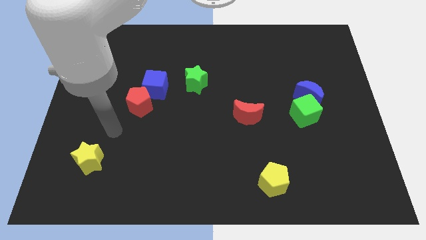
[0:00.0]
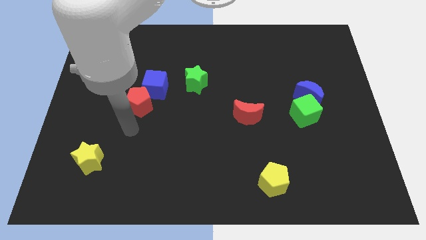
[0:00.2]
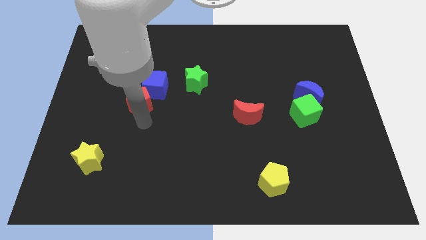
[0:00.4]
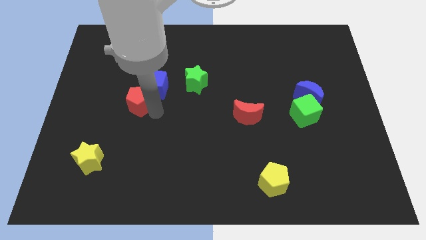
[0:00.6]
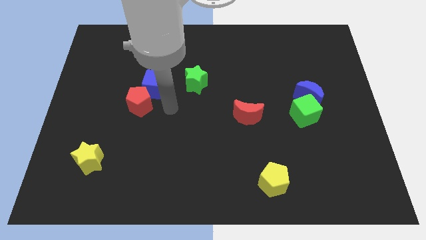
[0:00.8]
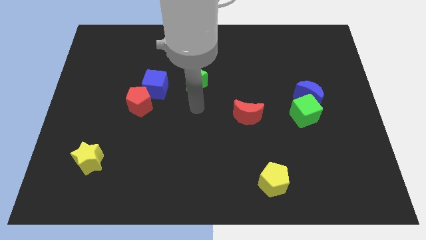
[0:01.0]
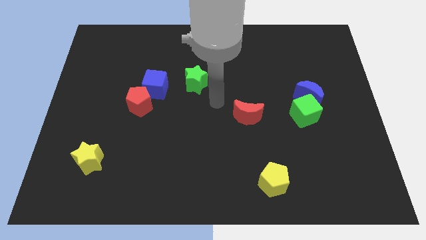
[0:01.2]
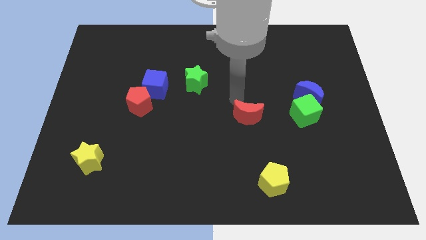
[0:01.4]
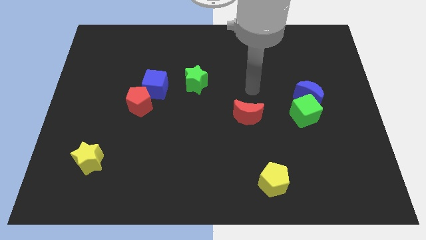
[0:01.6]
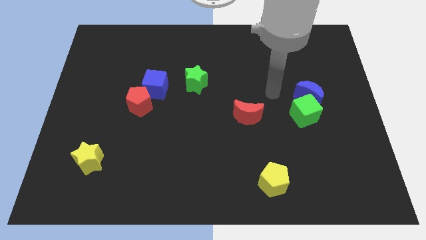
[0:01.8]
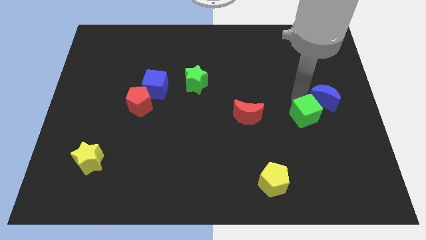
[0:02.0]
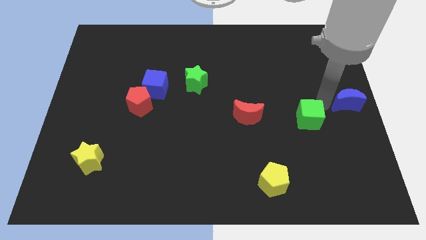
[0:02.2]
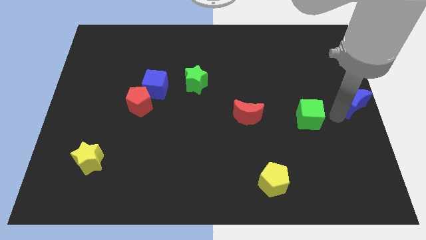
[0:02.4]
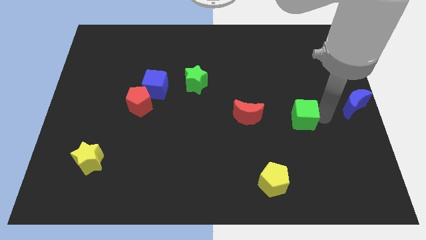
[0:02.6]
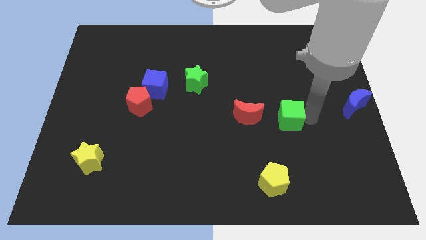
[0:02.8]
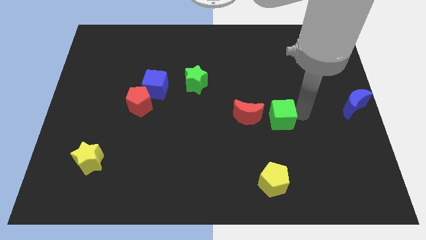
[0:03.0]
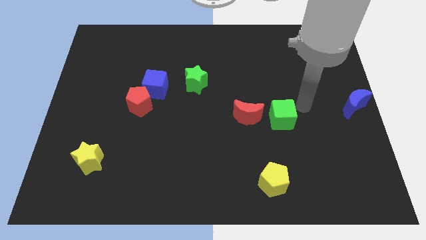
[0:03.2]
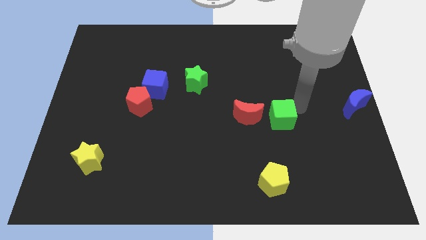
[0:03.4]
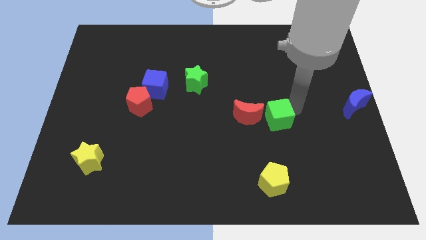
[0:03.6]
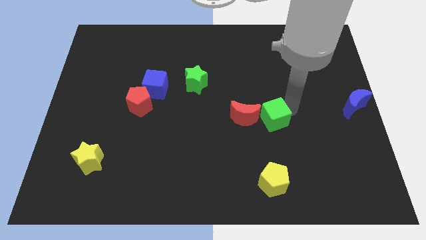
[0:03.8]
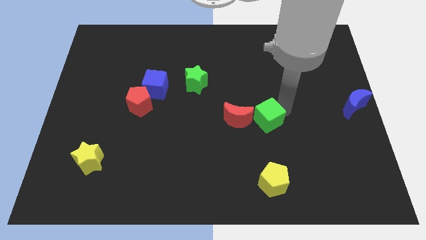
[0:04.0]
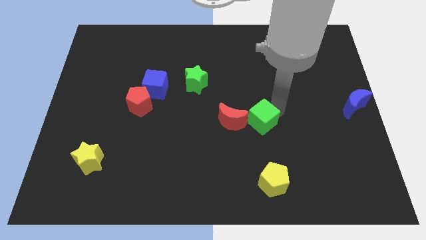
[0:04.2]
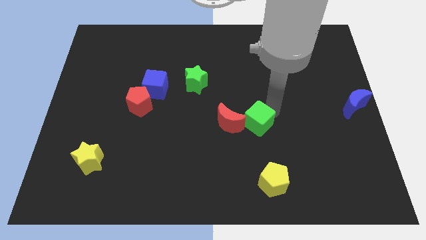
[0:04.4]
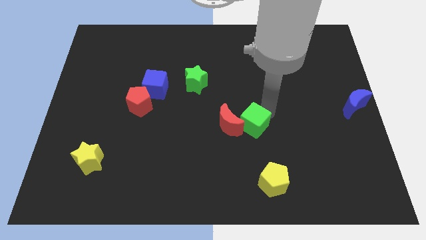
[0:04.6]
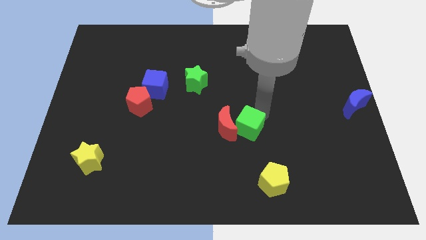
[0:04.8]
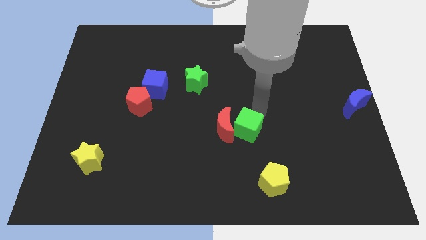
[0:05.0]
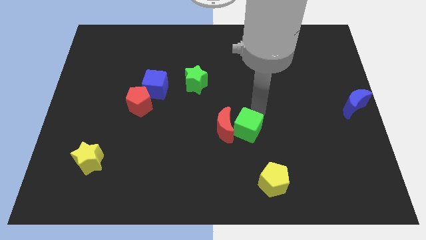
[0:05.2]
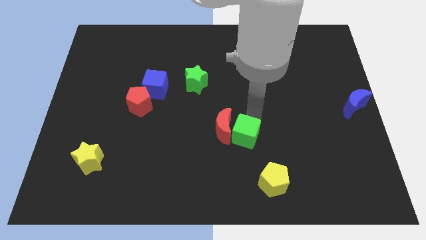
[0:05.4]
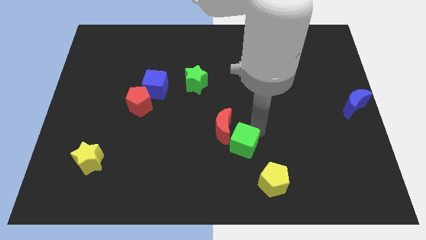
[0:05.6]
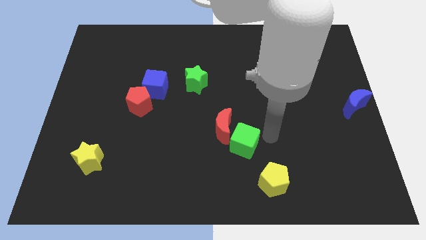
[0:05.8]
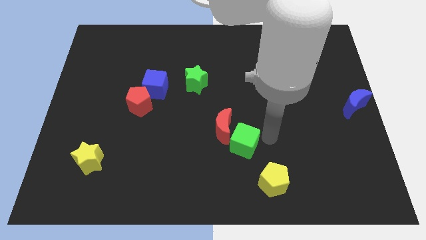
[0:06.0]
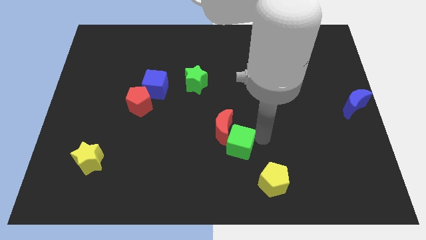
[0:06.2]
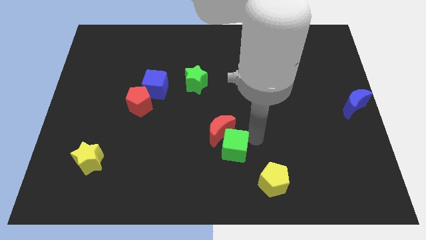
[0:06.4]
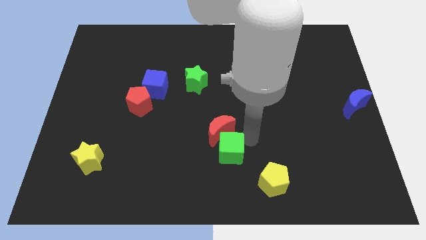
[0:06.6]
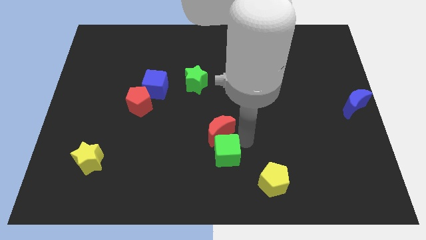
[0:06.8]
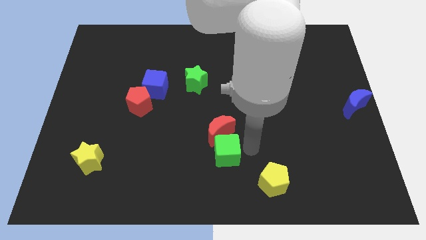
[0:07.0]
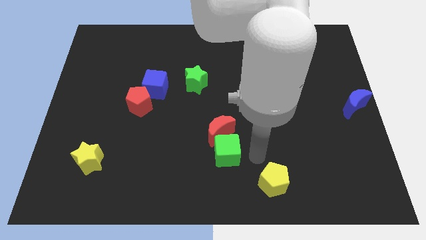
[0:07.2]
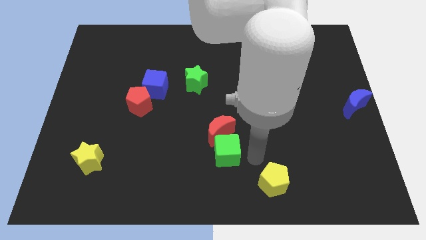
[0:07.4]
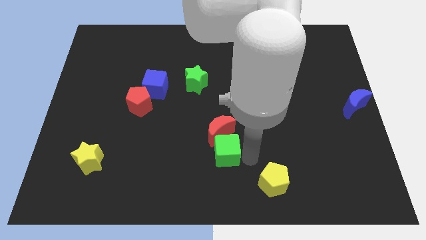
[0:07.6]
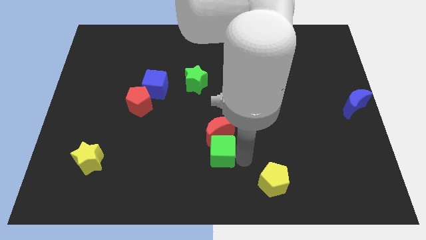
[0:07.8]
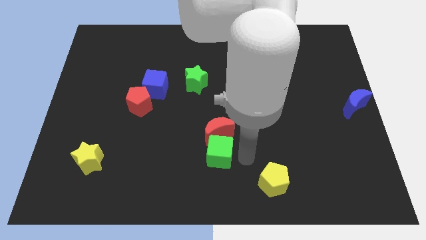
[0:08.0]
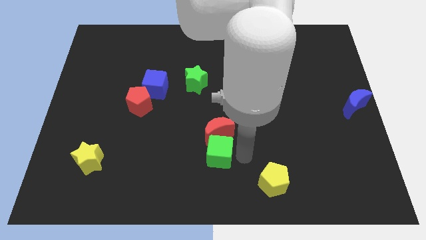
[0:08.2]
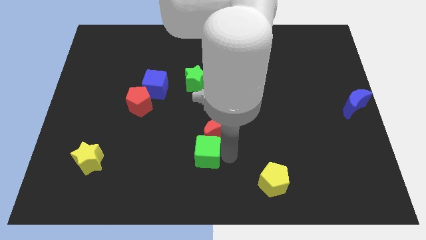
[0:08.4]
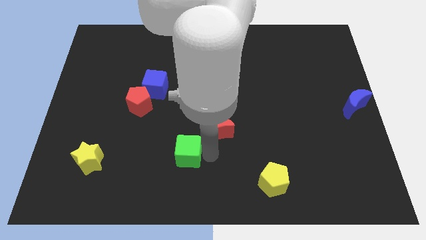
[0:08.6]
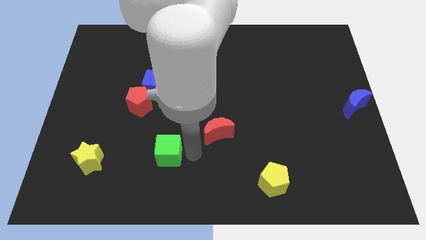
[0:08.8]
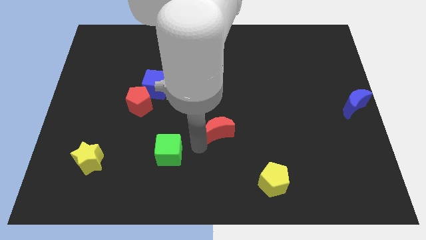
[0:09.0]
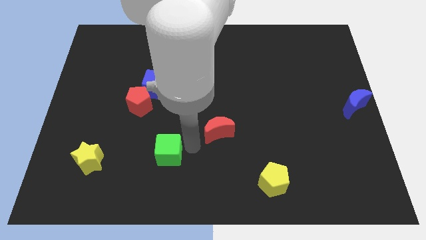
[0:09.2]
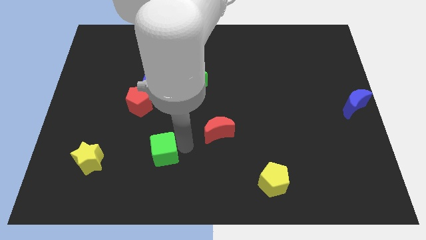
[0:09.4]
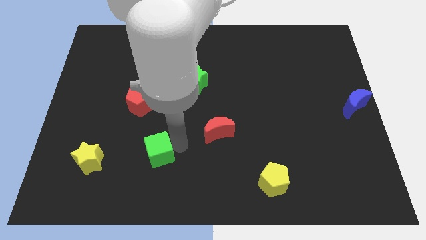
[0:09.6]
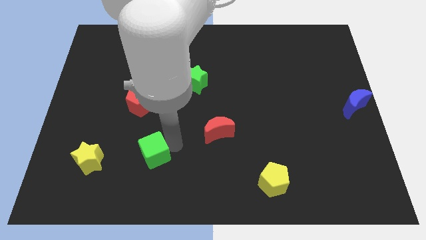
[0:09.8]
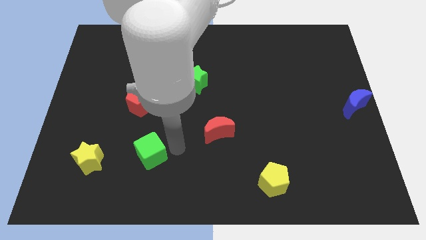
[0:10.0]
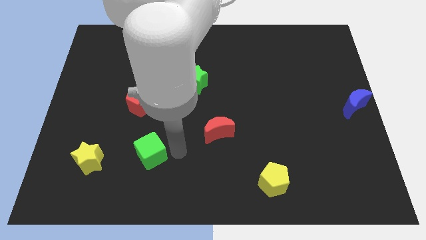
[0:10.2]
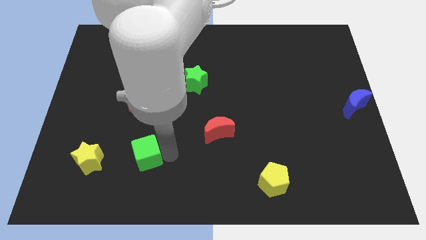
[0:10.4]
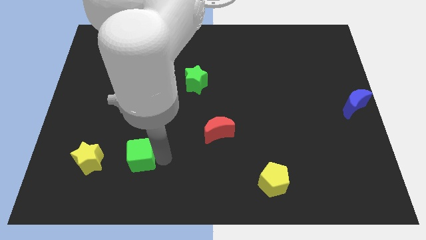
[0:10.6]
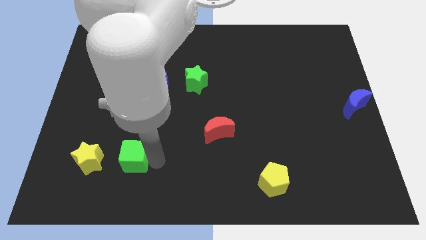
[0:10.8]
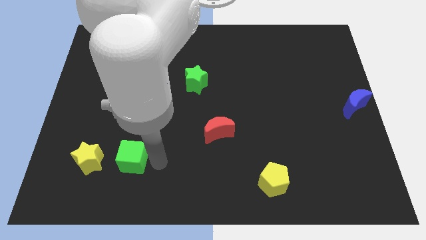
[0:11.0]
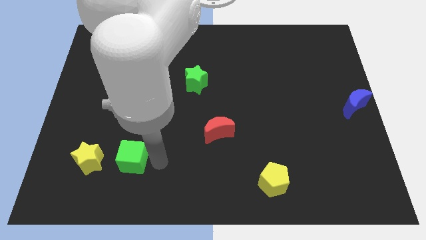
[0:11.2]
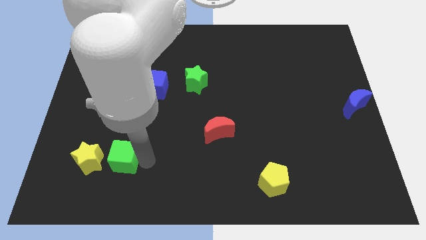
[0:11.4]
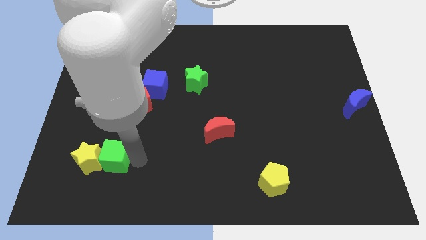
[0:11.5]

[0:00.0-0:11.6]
slide the green cube next to the yellow star

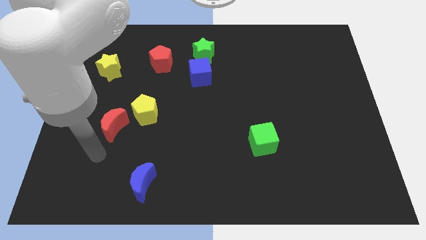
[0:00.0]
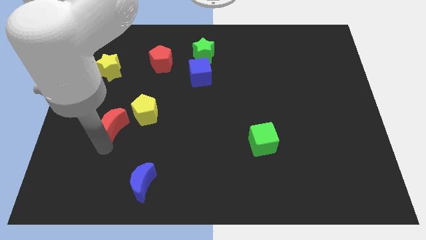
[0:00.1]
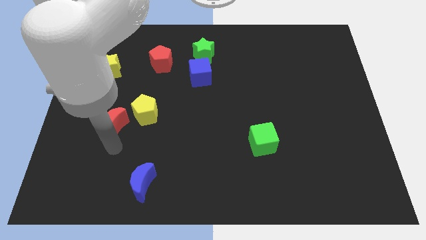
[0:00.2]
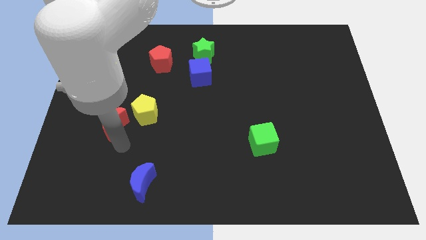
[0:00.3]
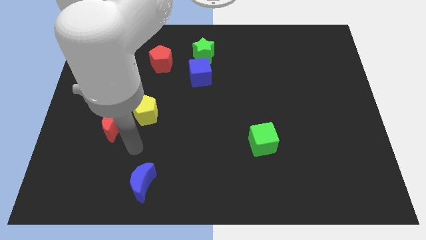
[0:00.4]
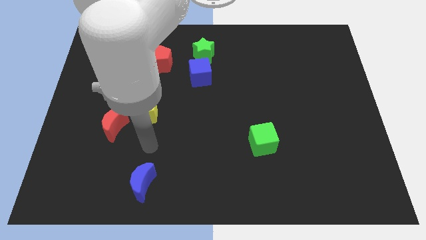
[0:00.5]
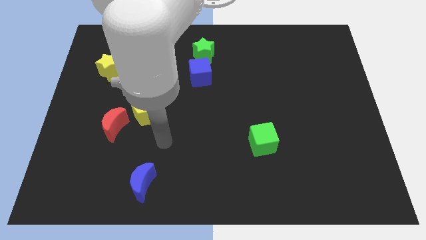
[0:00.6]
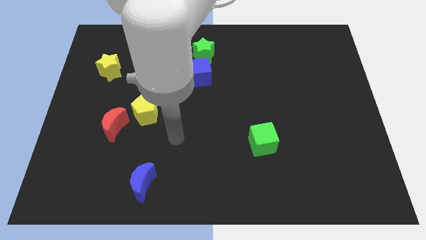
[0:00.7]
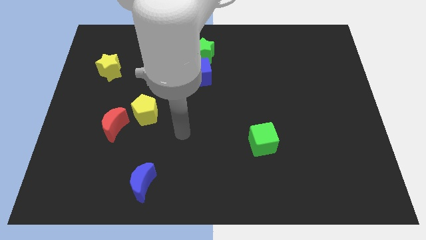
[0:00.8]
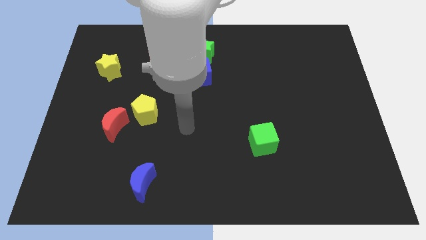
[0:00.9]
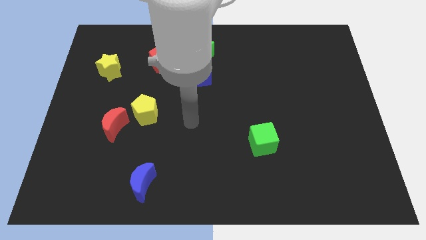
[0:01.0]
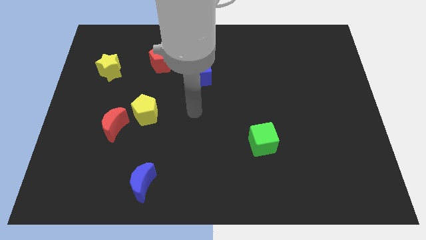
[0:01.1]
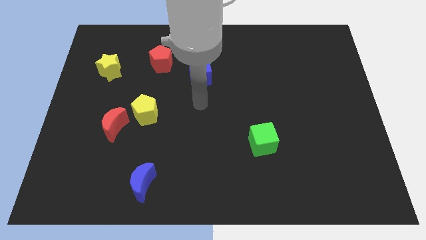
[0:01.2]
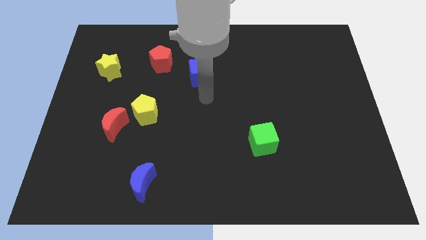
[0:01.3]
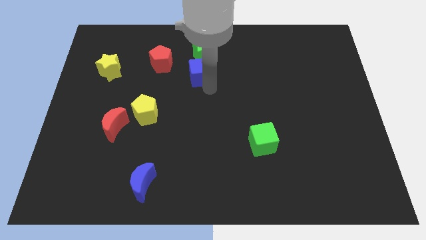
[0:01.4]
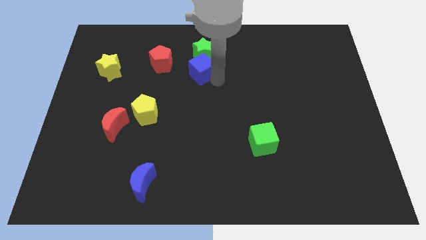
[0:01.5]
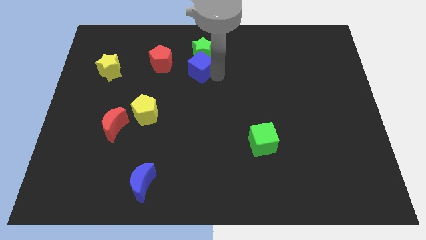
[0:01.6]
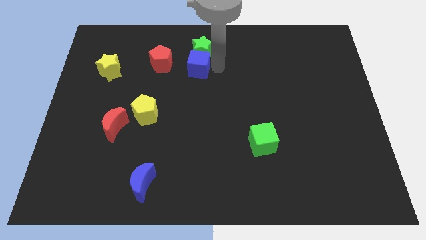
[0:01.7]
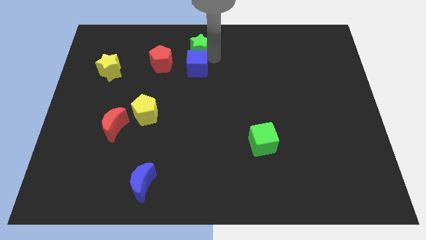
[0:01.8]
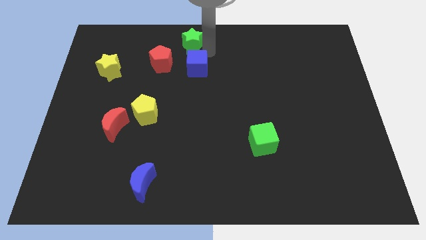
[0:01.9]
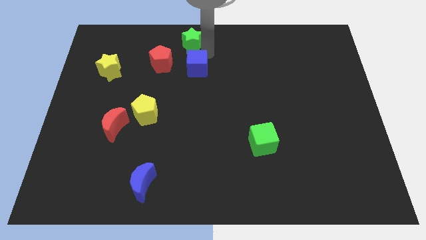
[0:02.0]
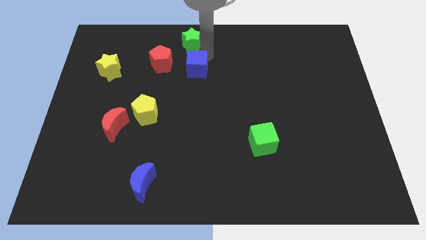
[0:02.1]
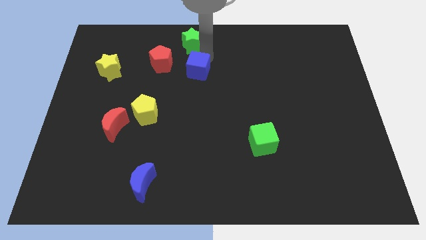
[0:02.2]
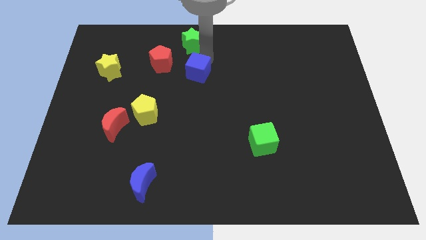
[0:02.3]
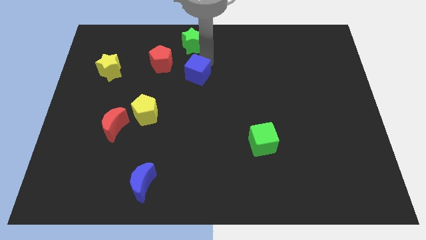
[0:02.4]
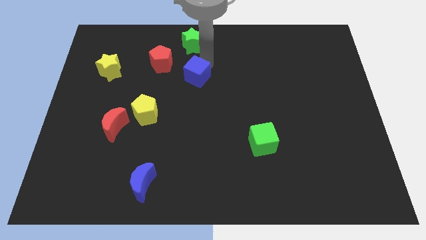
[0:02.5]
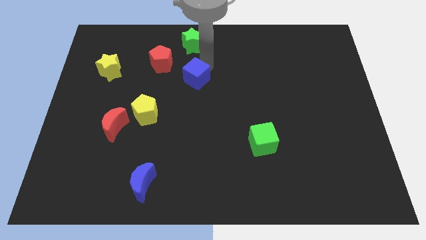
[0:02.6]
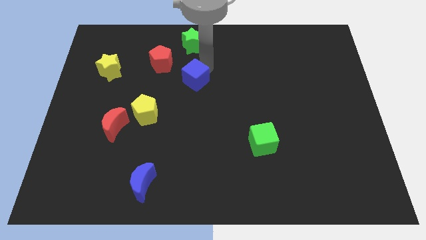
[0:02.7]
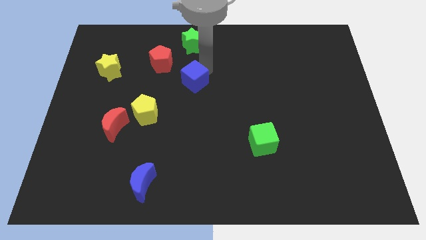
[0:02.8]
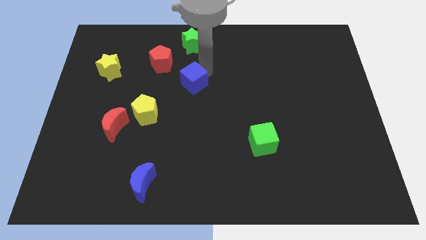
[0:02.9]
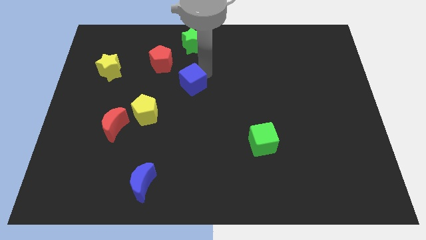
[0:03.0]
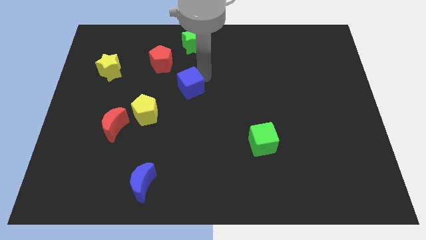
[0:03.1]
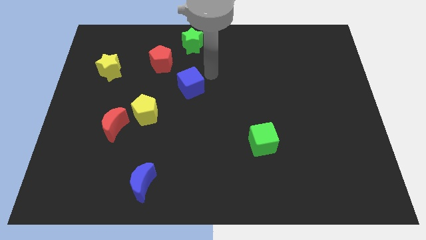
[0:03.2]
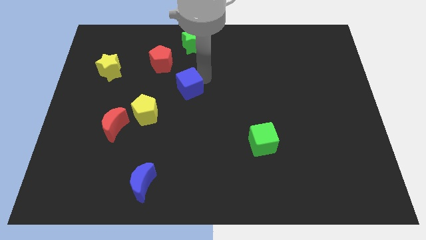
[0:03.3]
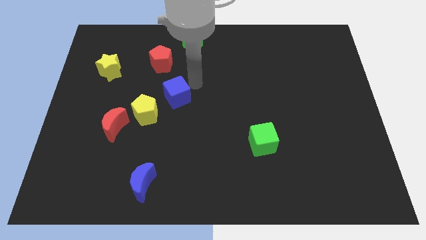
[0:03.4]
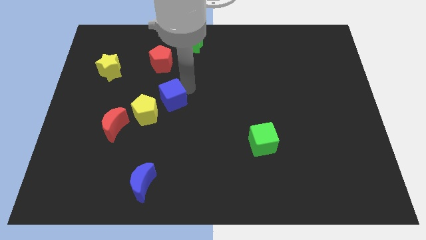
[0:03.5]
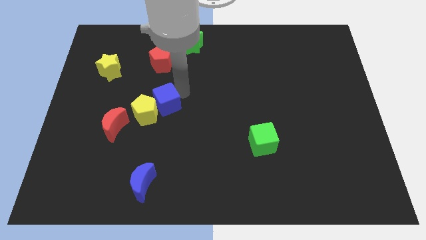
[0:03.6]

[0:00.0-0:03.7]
put the blue cube to the yellow pentagon
